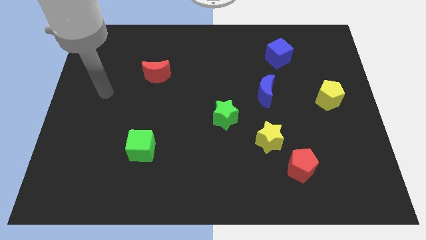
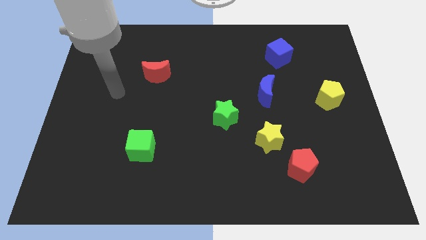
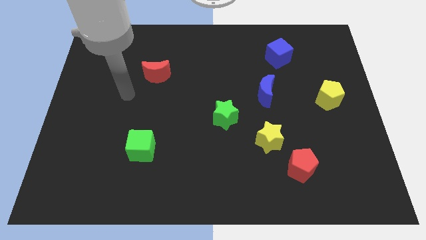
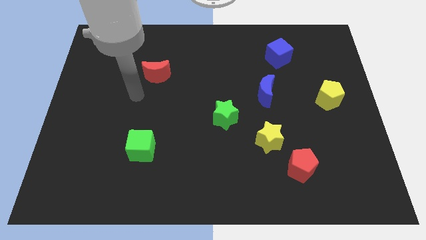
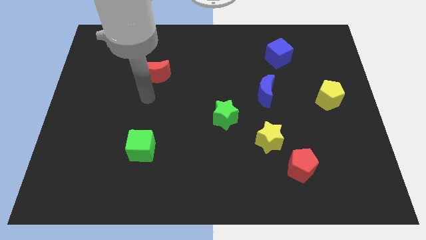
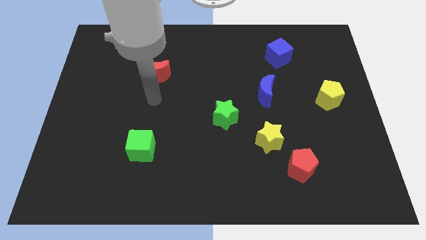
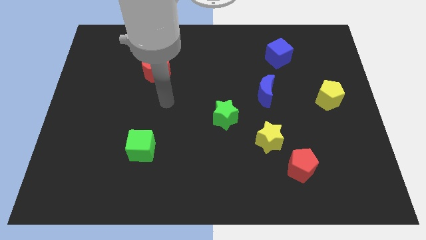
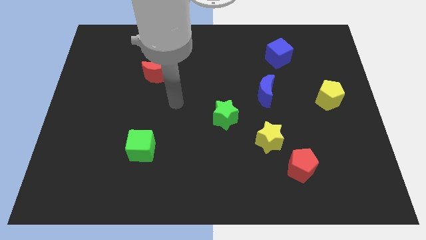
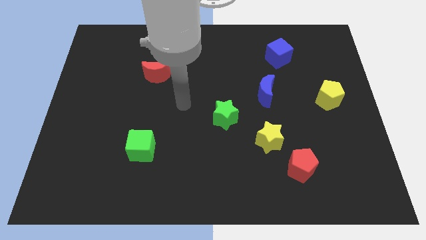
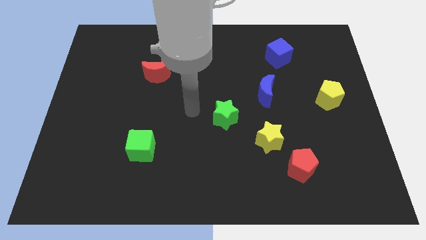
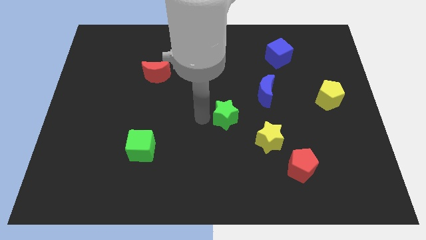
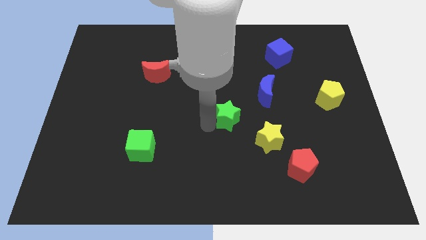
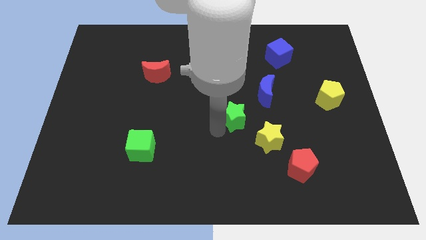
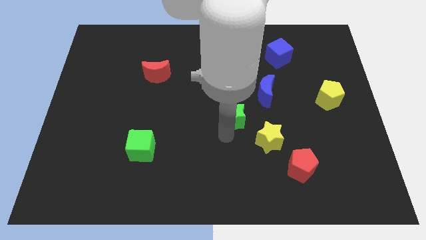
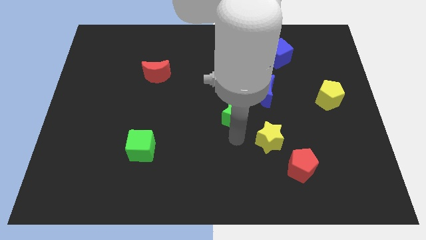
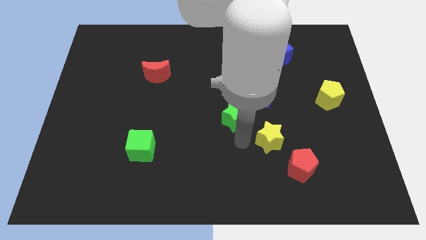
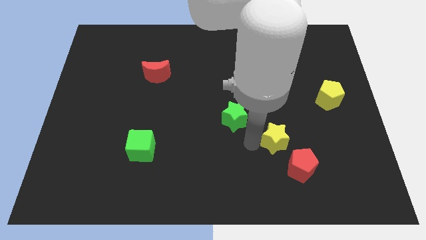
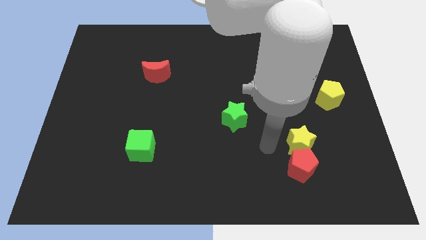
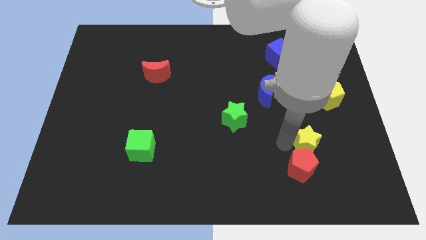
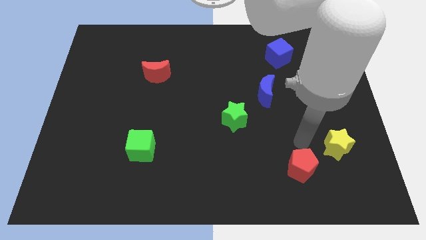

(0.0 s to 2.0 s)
pull the red pentagon apart from the yellow star

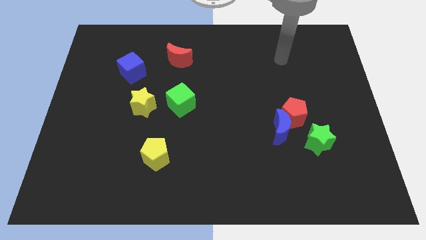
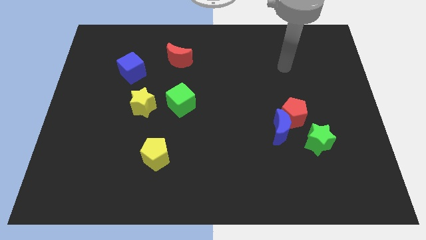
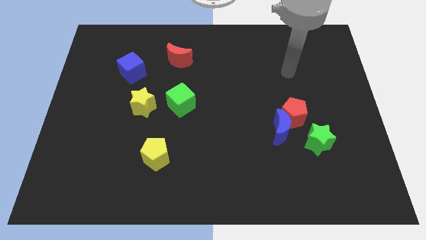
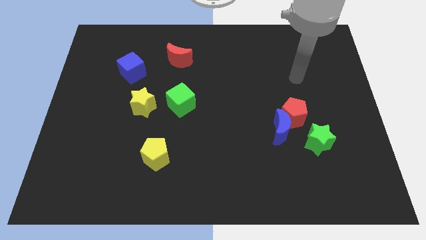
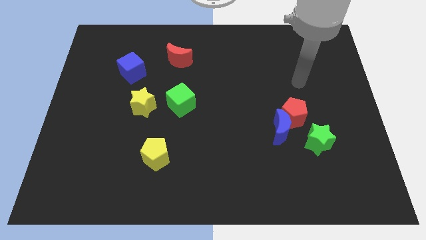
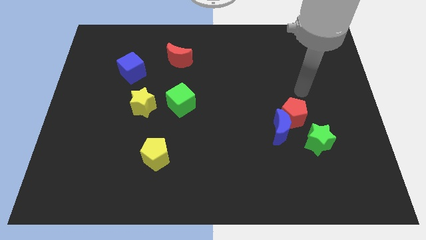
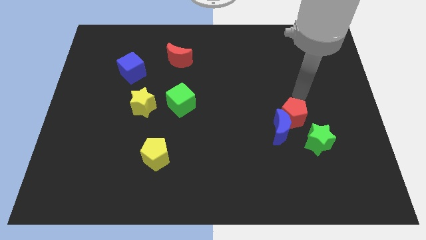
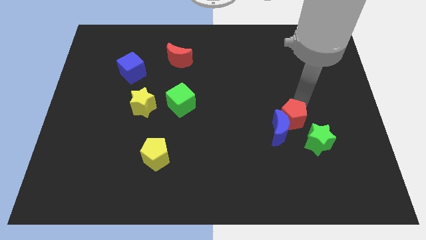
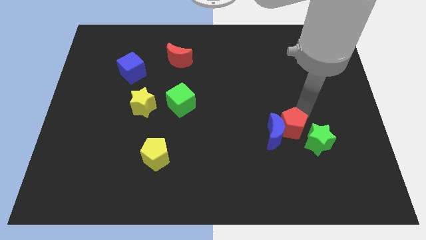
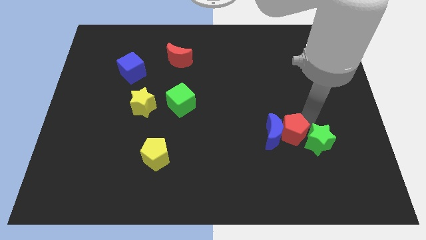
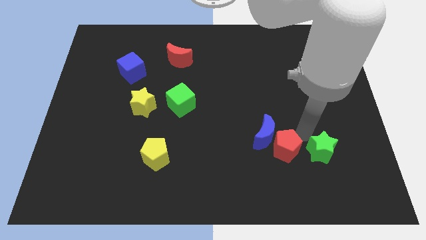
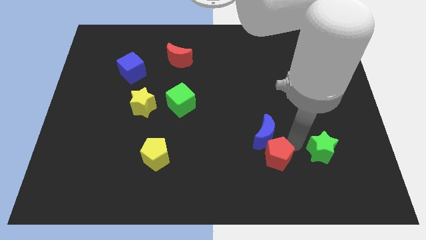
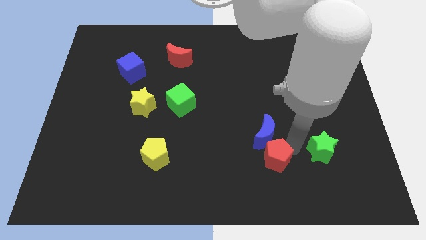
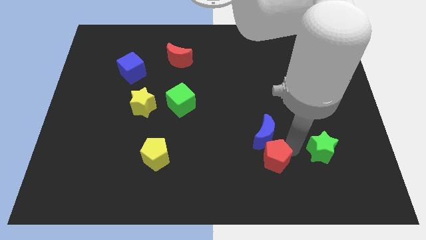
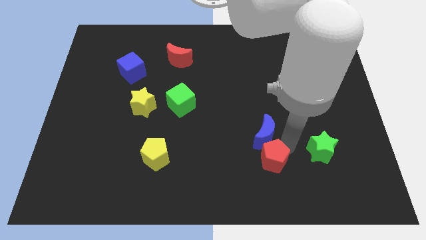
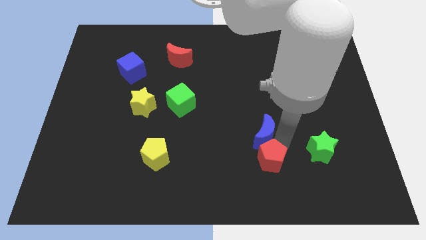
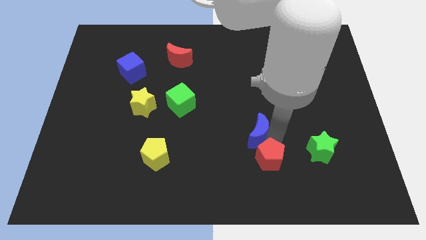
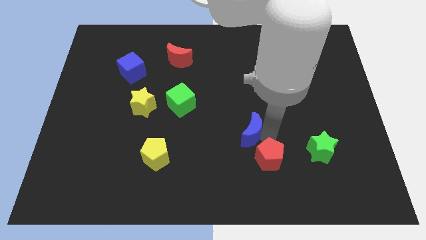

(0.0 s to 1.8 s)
pull the blue moon apart from the red pentagon and green star

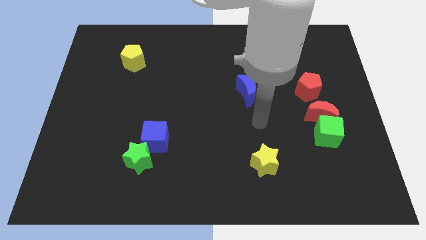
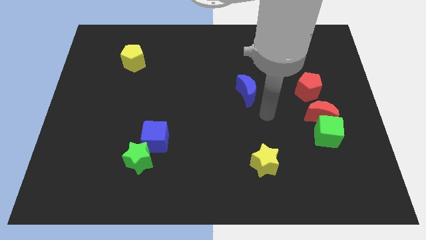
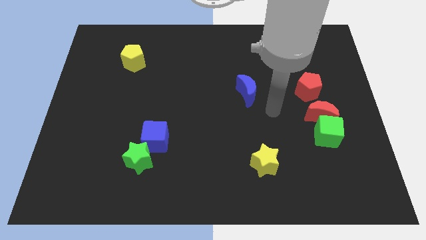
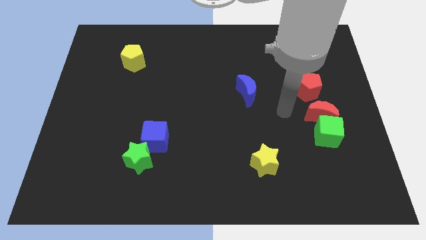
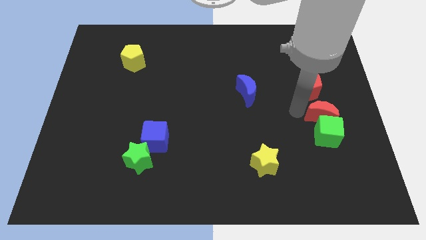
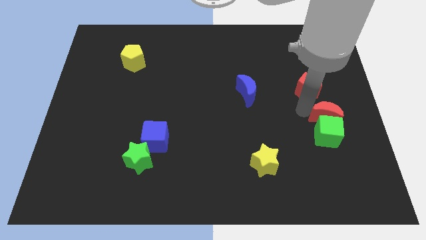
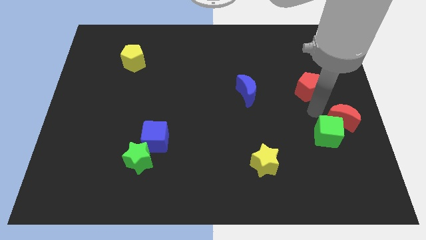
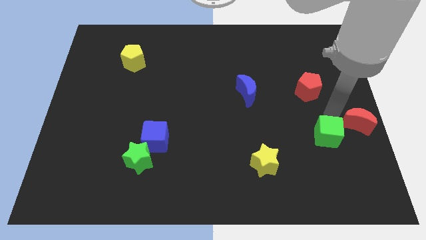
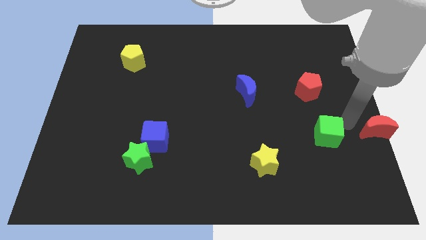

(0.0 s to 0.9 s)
pull the green cube apart from the red moon

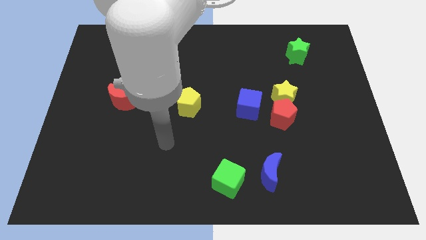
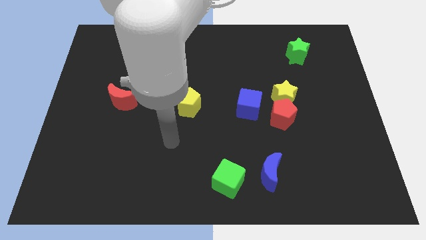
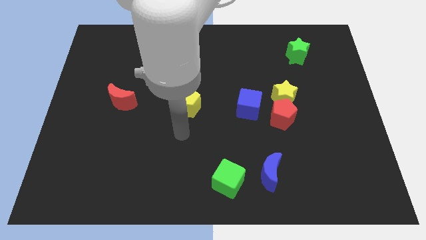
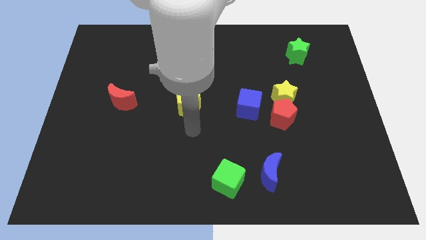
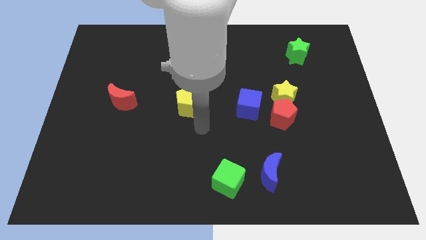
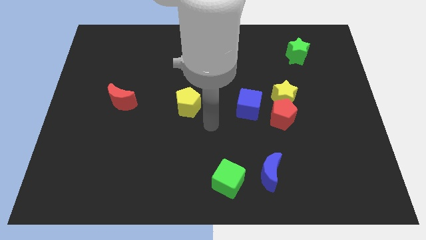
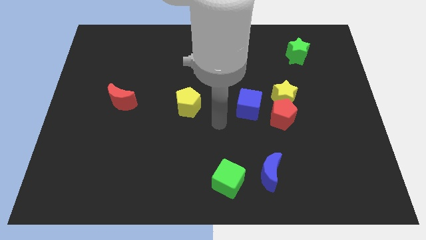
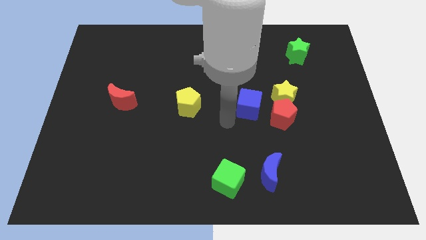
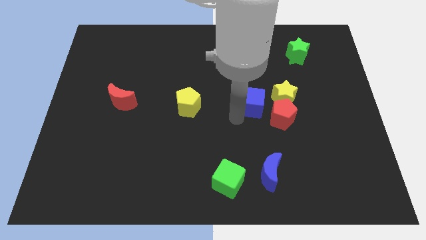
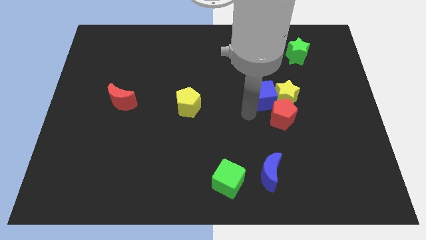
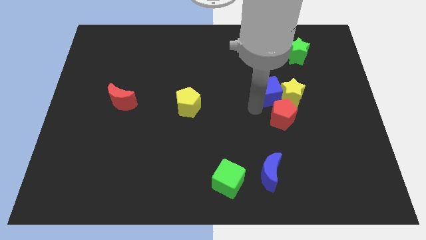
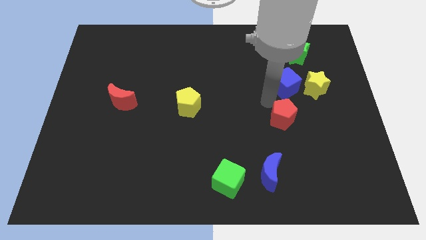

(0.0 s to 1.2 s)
move the red pentagon away from the yellow star and blue cube

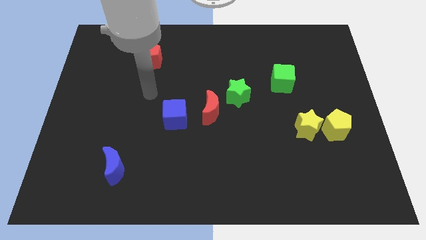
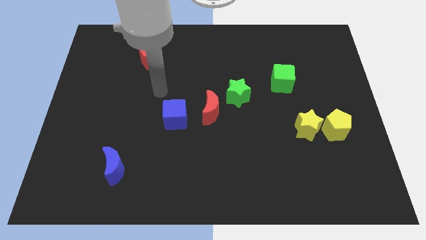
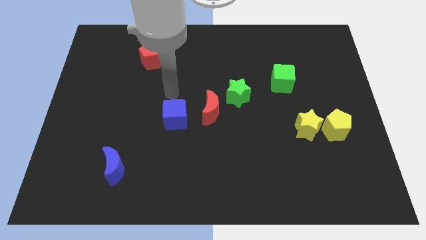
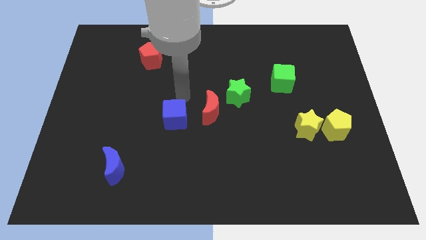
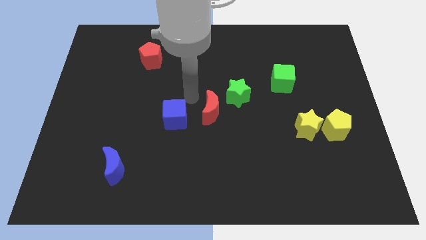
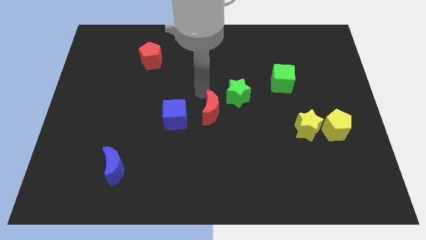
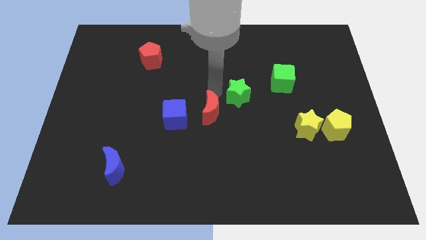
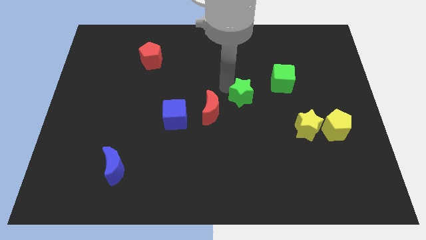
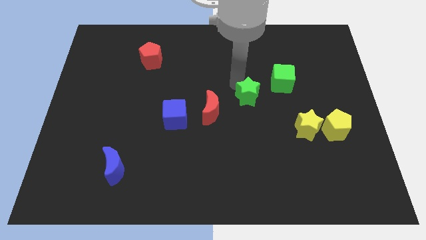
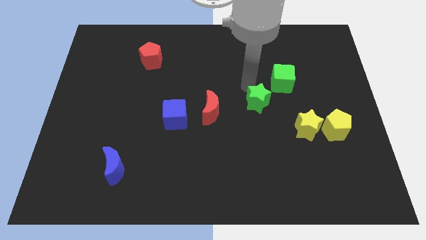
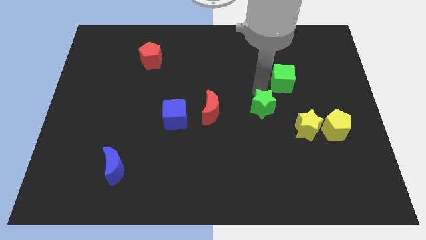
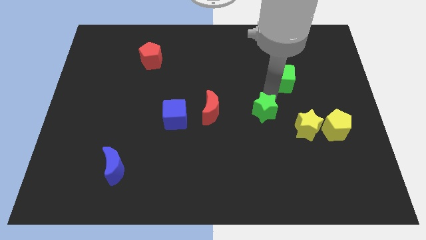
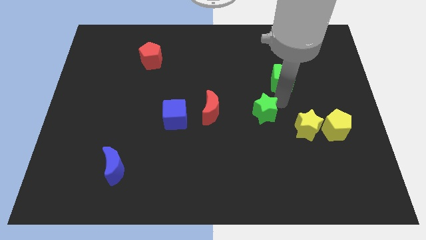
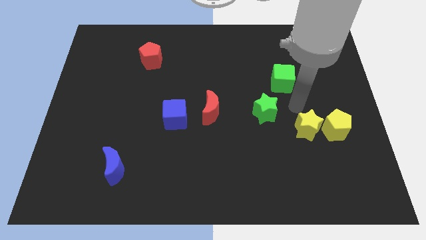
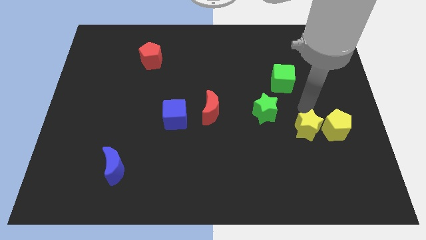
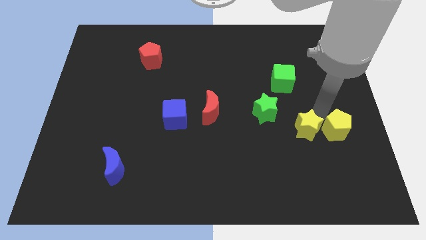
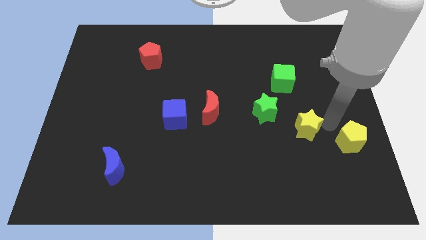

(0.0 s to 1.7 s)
move the yellow star away from the yellow pentagon

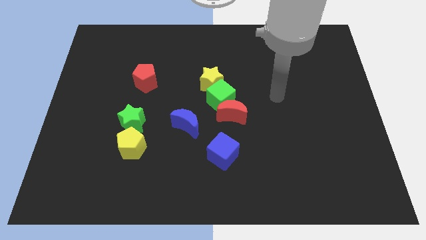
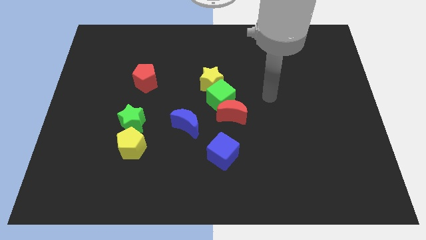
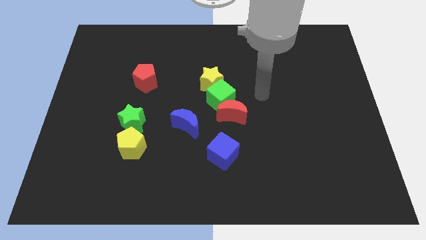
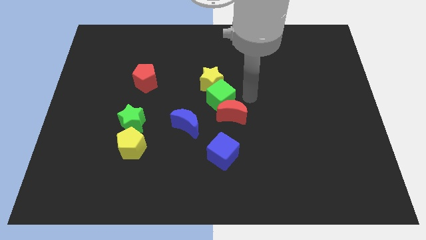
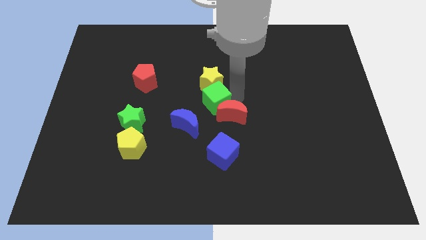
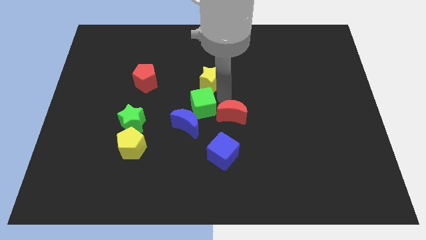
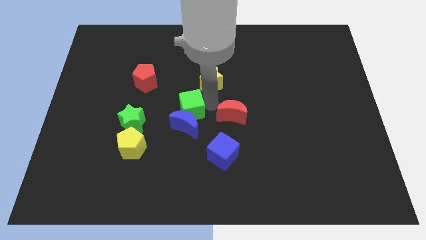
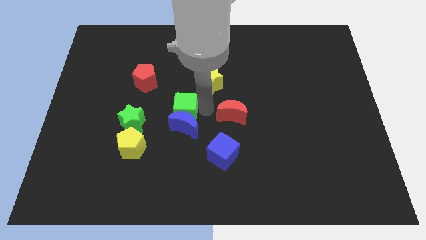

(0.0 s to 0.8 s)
move the red moon away from the green cube

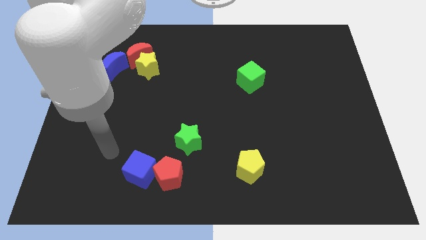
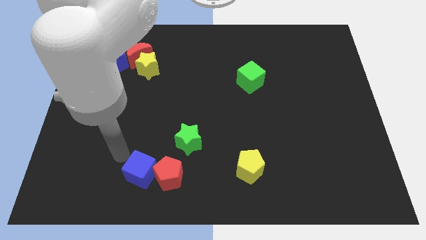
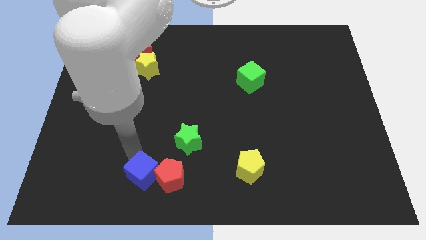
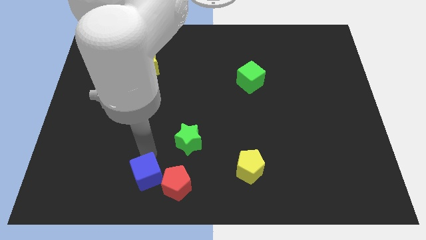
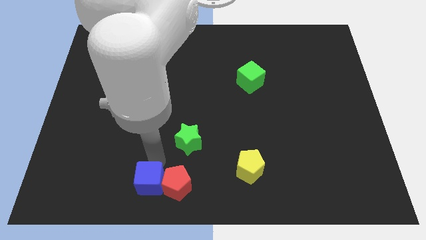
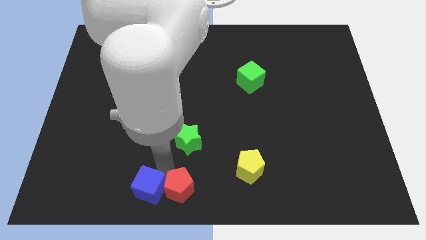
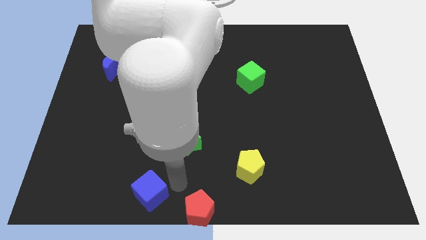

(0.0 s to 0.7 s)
move the blue cube away from the red pentagon

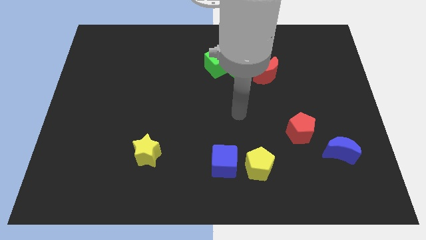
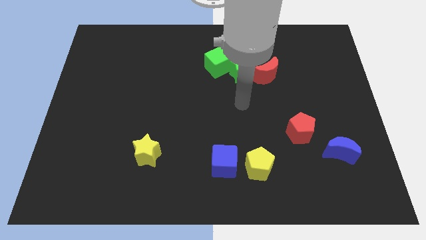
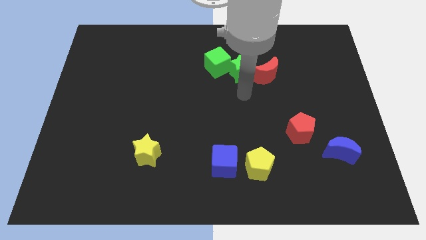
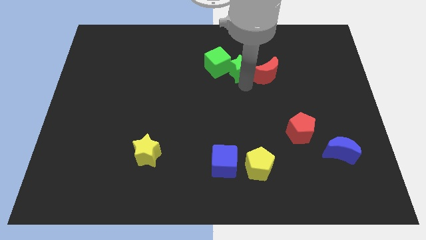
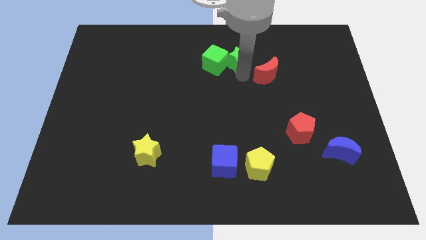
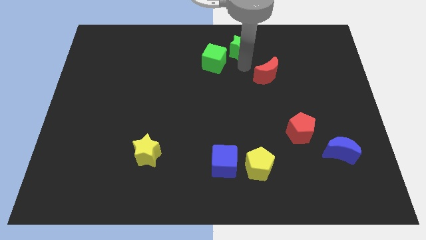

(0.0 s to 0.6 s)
move the red moon away from the green star
